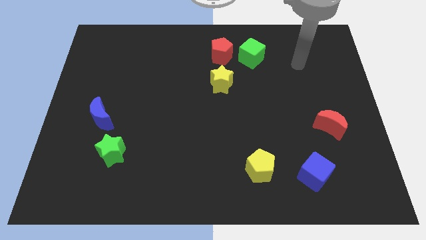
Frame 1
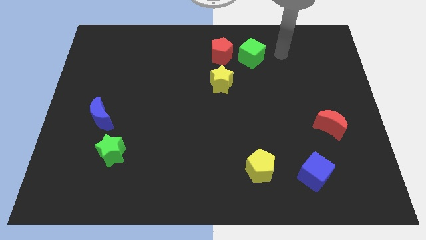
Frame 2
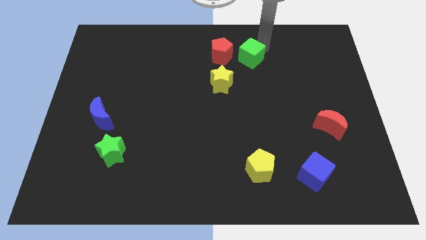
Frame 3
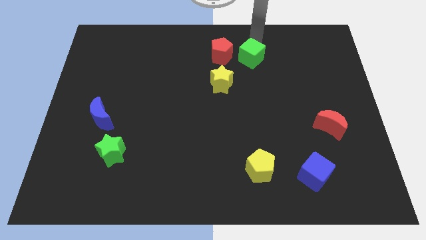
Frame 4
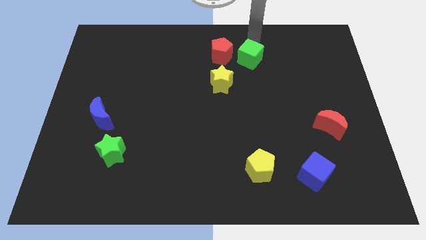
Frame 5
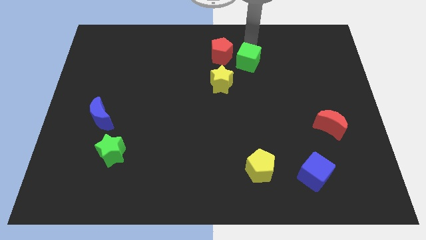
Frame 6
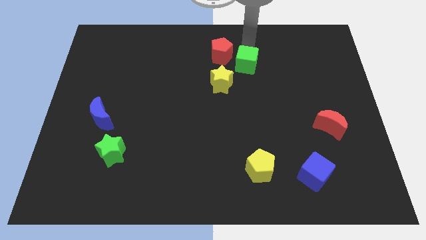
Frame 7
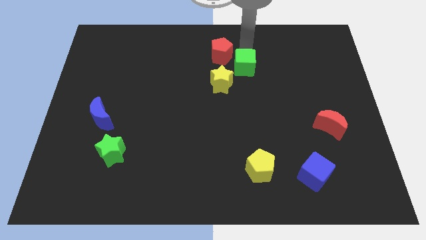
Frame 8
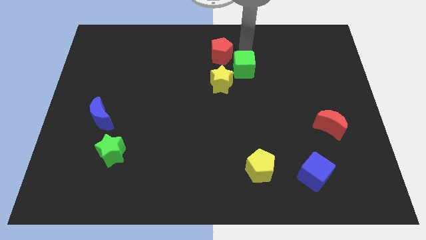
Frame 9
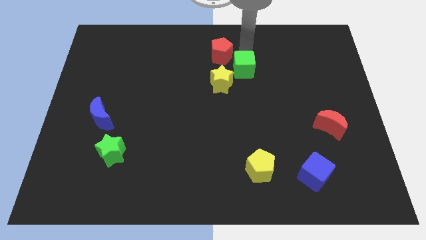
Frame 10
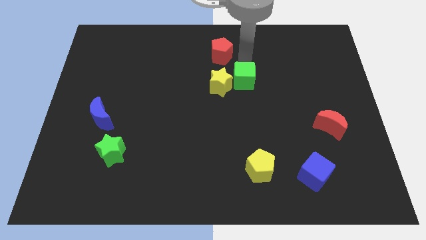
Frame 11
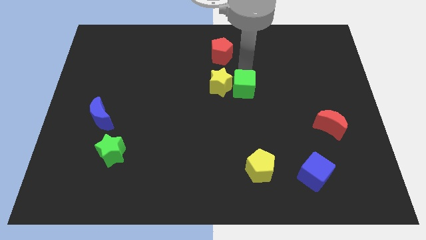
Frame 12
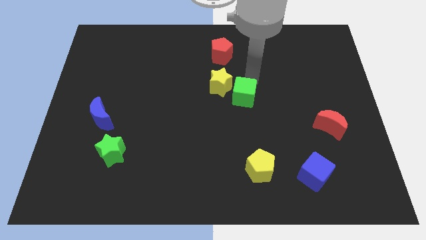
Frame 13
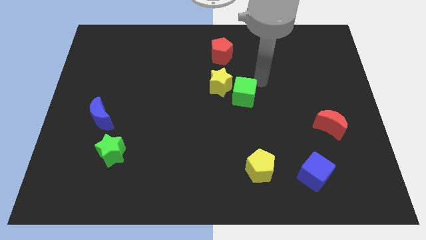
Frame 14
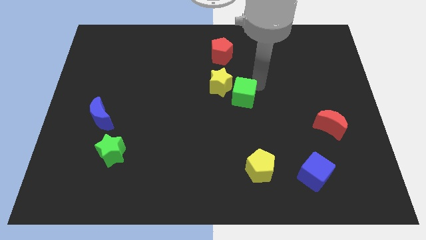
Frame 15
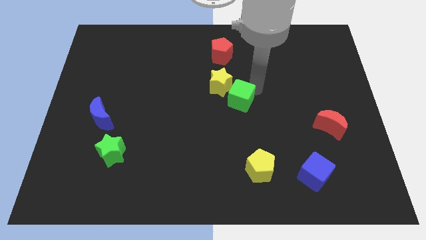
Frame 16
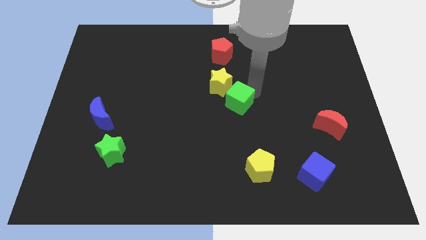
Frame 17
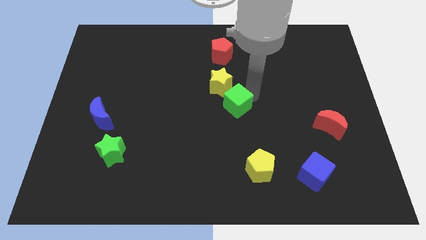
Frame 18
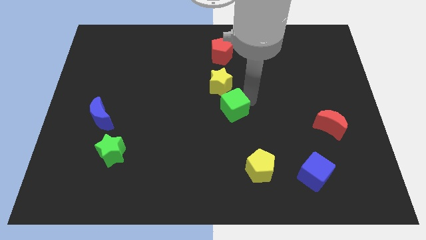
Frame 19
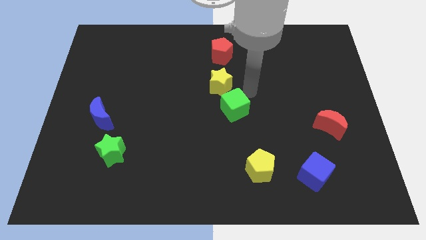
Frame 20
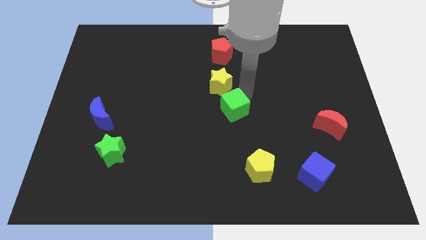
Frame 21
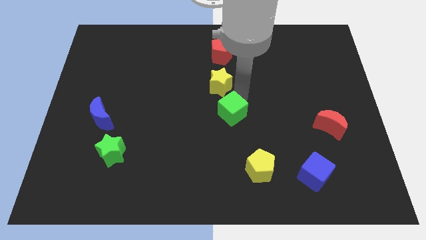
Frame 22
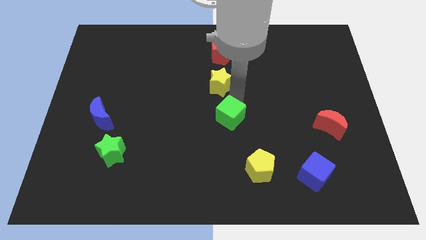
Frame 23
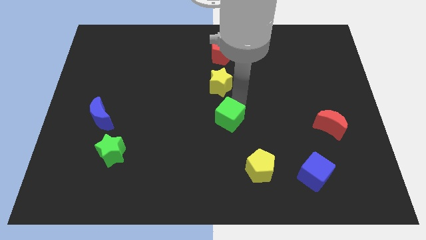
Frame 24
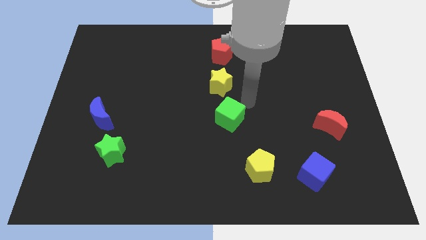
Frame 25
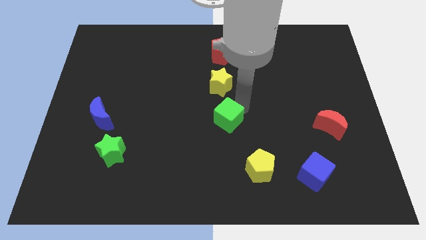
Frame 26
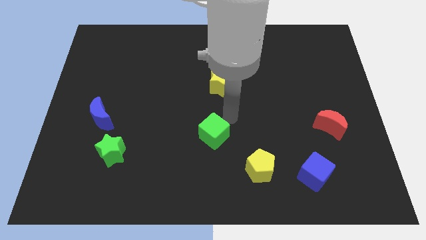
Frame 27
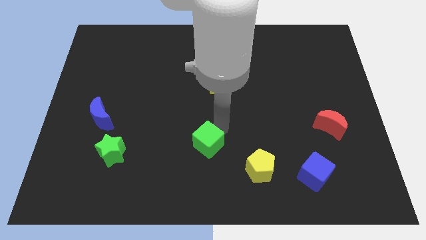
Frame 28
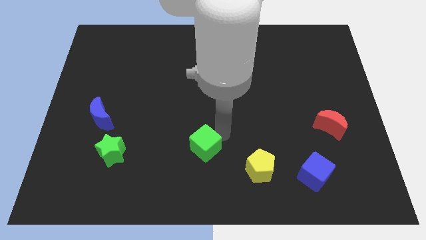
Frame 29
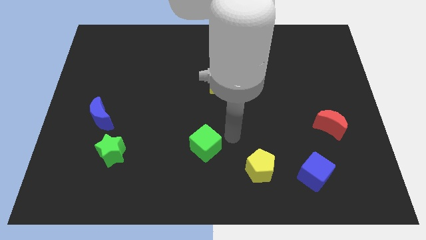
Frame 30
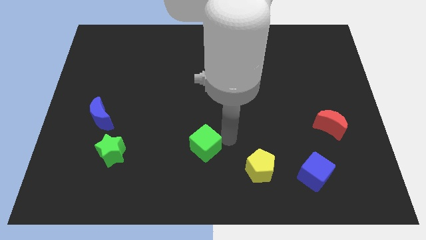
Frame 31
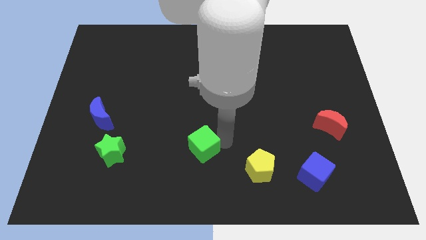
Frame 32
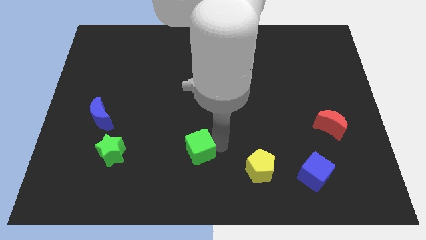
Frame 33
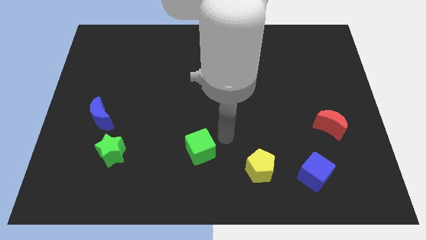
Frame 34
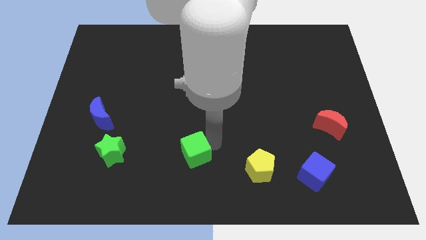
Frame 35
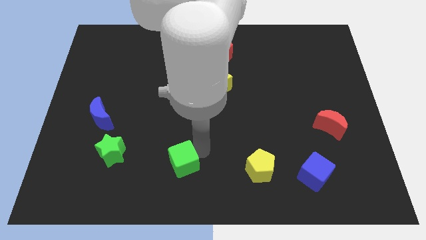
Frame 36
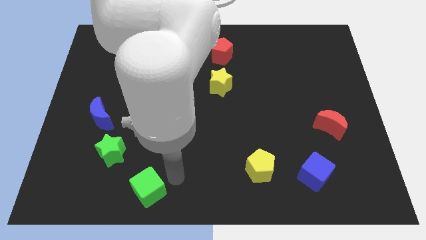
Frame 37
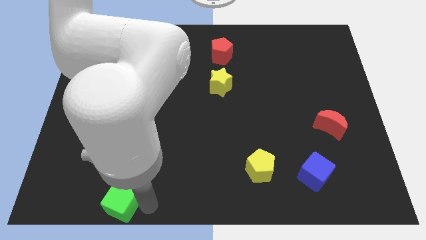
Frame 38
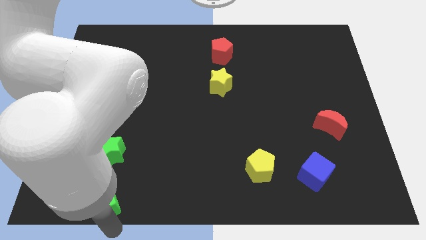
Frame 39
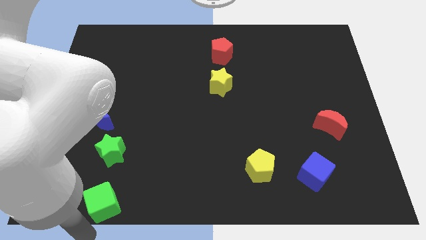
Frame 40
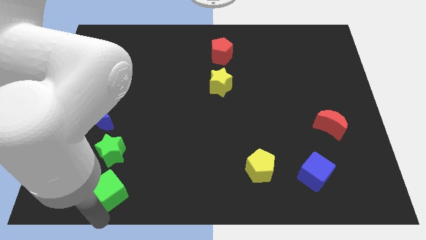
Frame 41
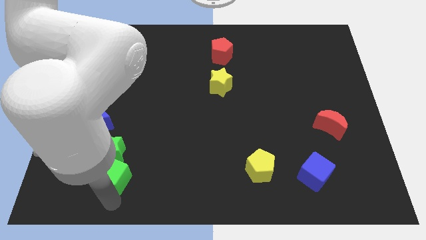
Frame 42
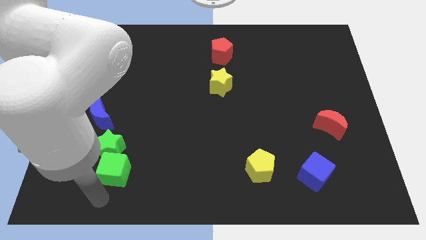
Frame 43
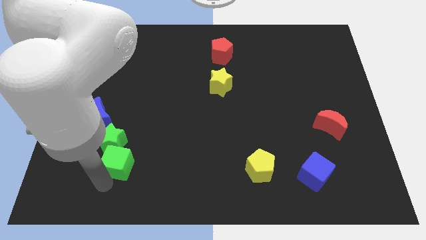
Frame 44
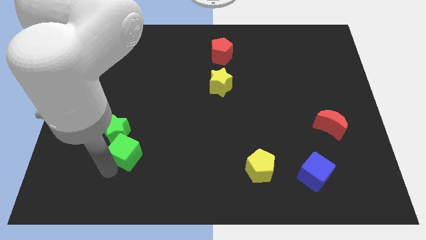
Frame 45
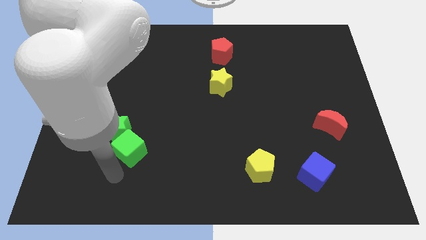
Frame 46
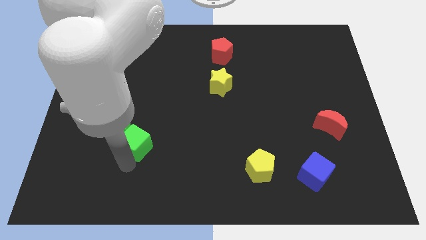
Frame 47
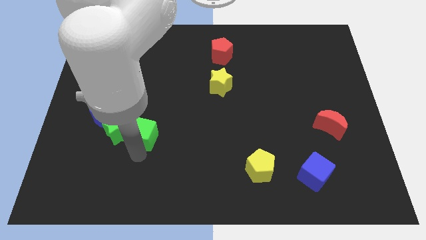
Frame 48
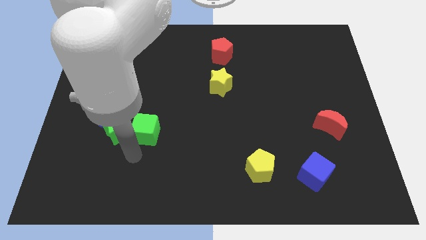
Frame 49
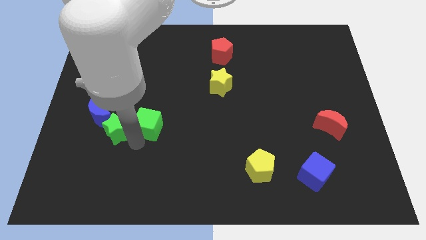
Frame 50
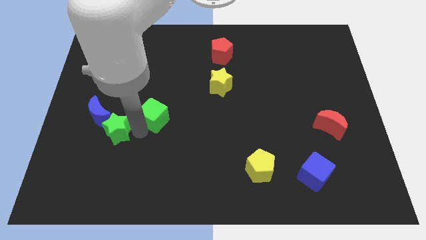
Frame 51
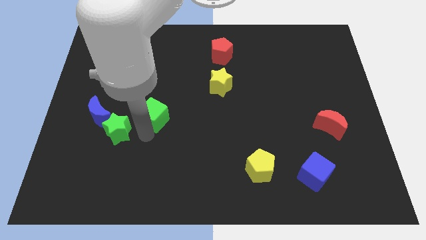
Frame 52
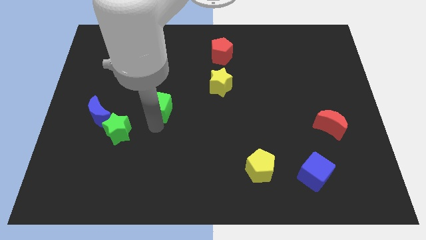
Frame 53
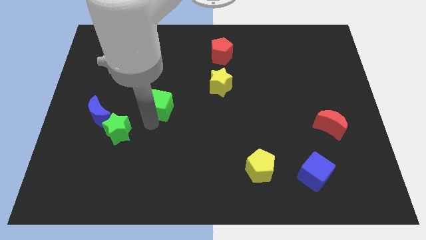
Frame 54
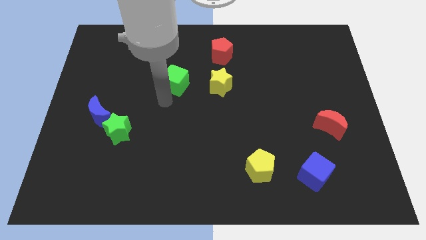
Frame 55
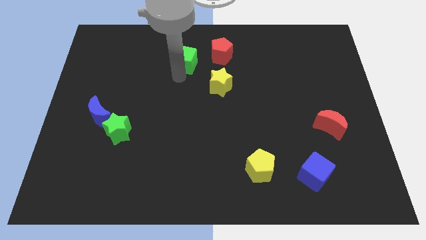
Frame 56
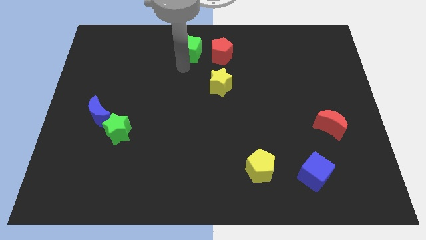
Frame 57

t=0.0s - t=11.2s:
slide the green cube to the towards your base

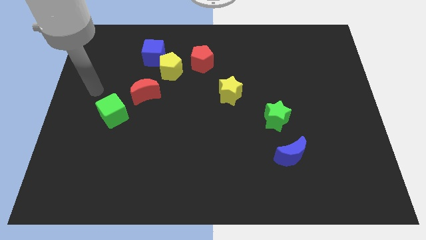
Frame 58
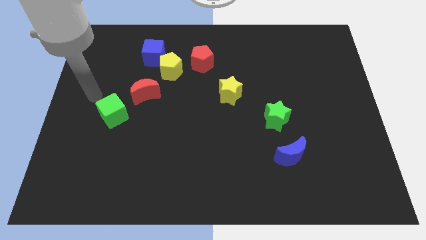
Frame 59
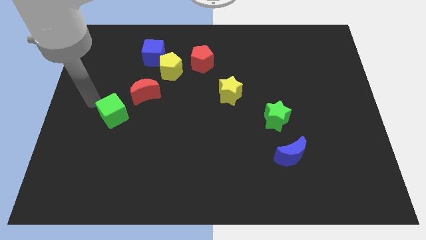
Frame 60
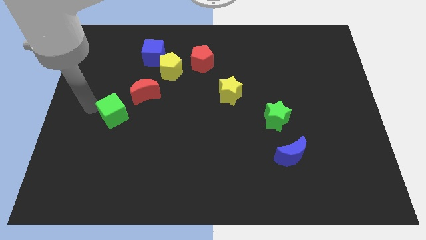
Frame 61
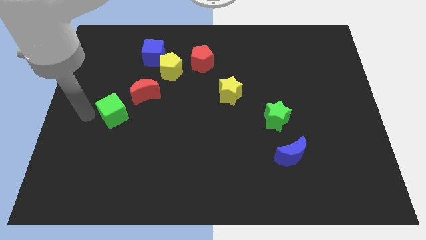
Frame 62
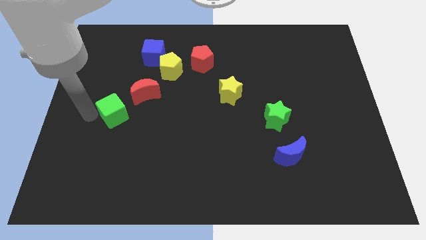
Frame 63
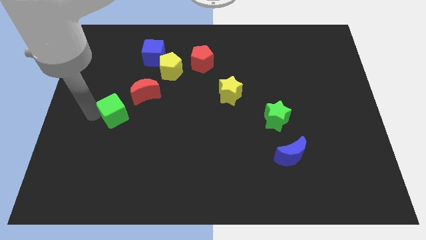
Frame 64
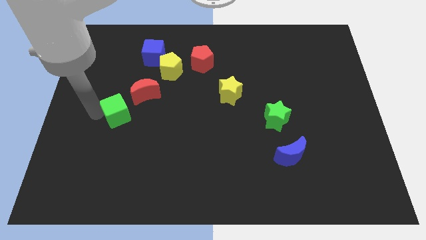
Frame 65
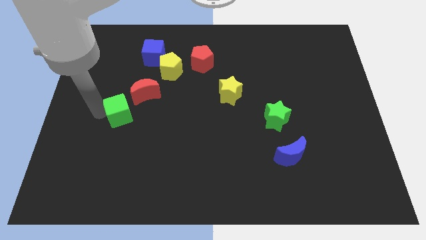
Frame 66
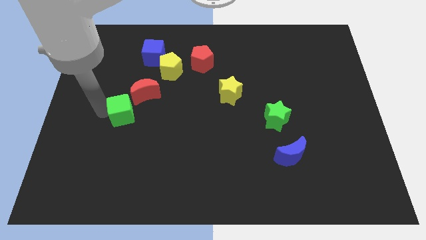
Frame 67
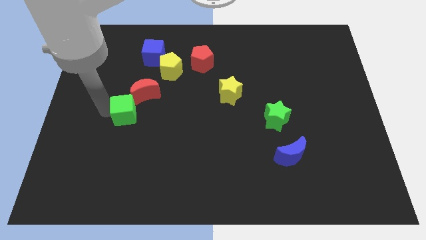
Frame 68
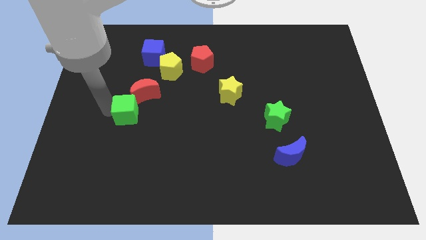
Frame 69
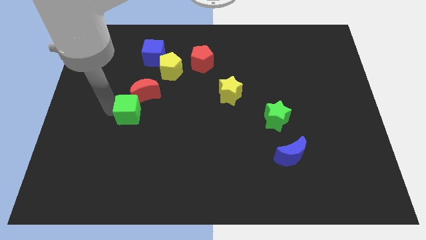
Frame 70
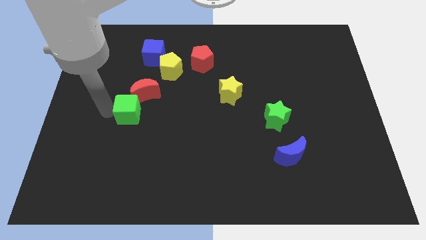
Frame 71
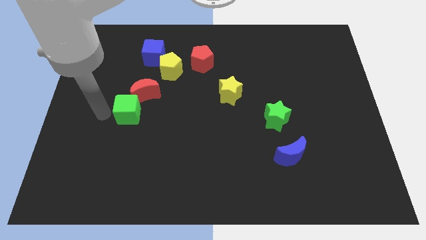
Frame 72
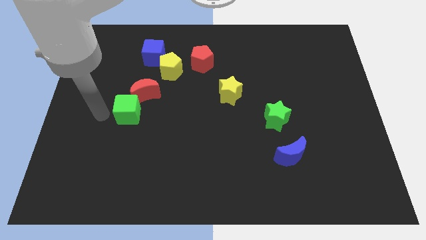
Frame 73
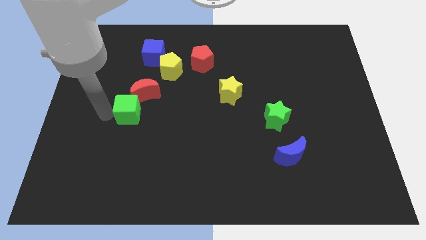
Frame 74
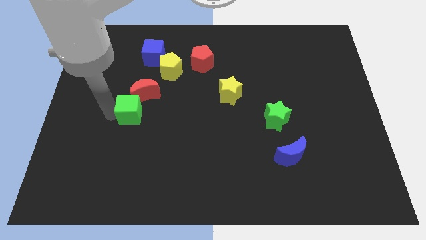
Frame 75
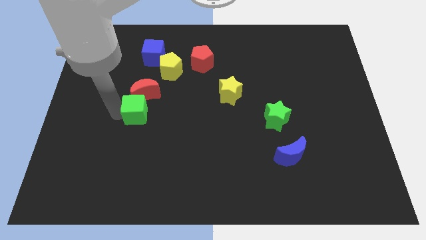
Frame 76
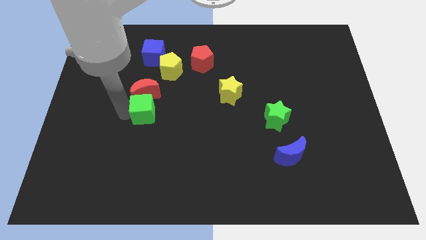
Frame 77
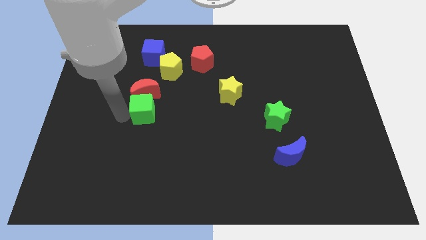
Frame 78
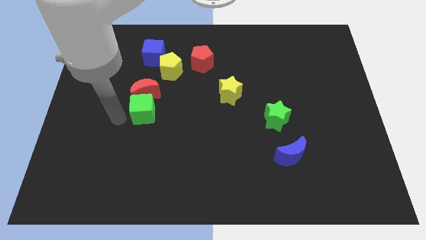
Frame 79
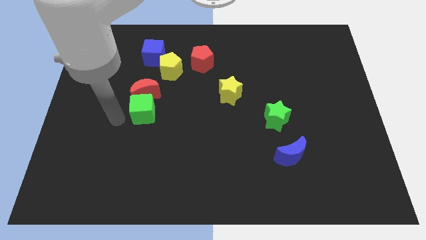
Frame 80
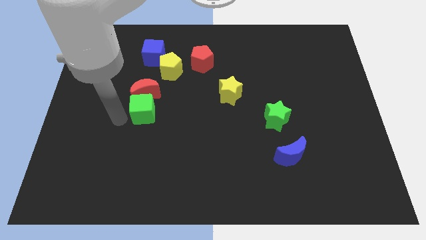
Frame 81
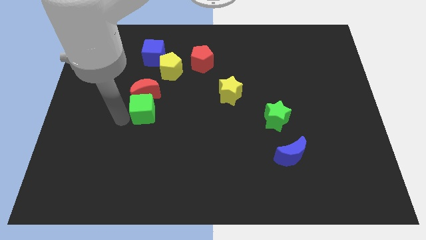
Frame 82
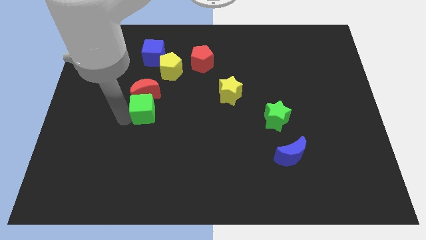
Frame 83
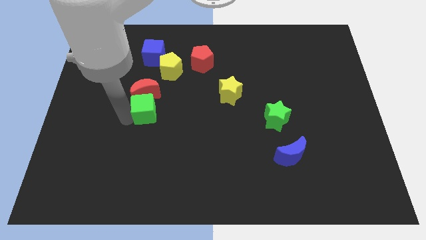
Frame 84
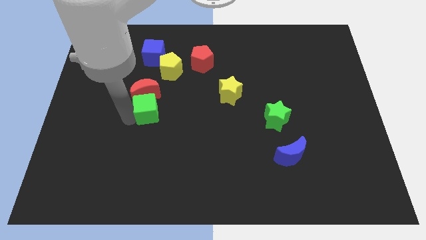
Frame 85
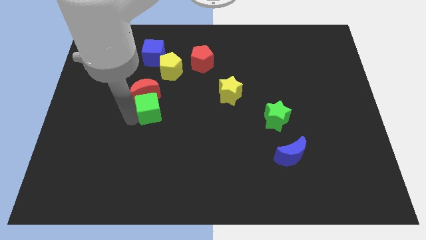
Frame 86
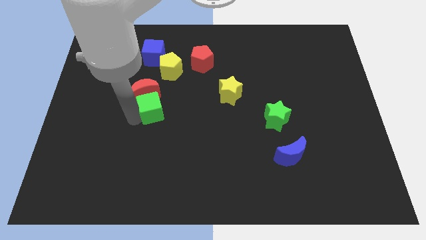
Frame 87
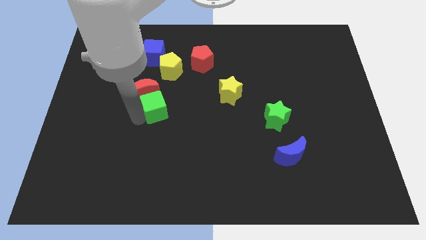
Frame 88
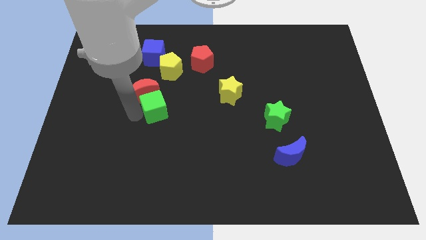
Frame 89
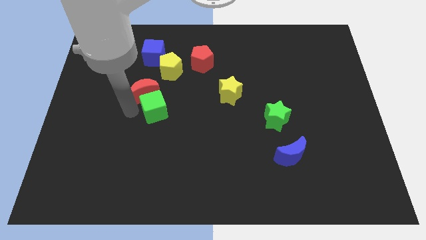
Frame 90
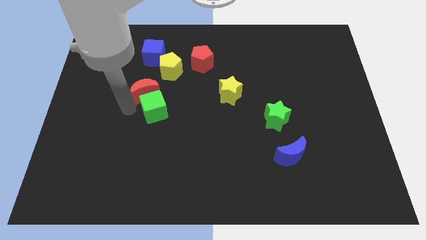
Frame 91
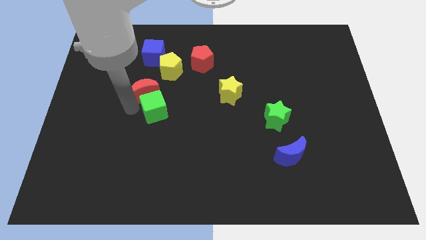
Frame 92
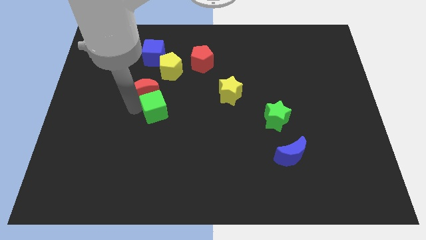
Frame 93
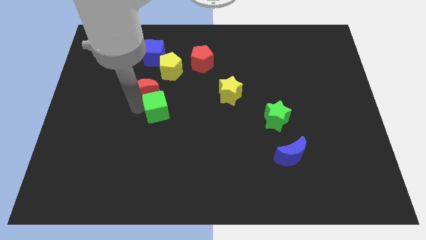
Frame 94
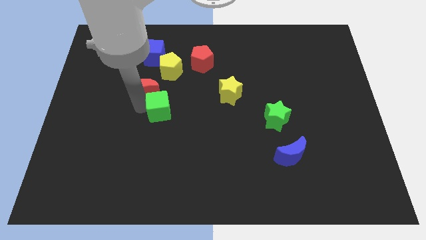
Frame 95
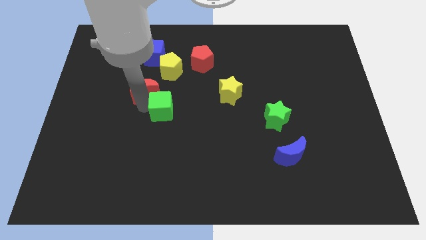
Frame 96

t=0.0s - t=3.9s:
push the green cube to the middle
